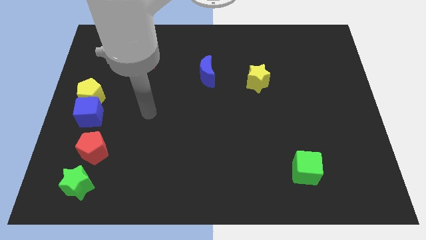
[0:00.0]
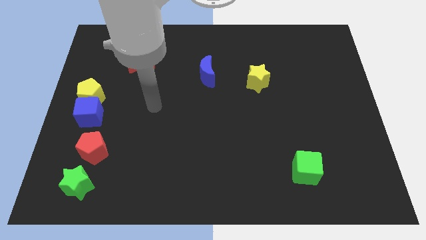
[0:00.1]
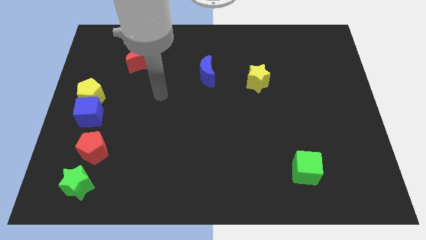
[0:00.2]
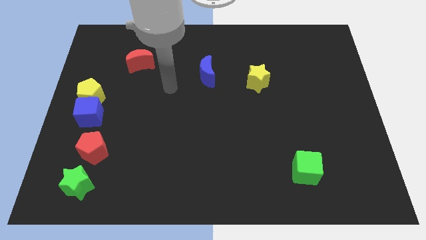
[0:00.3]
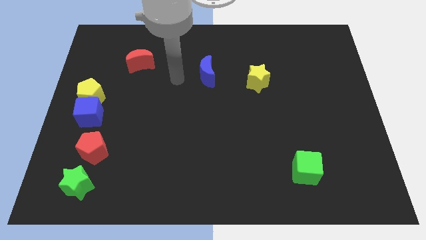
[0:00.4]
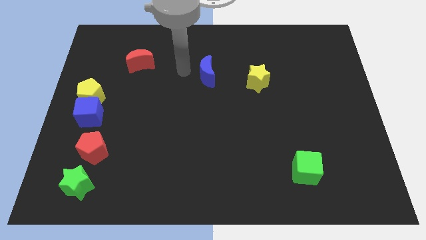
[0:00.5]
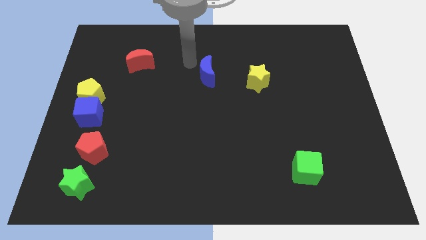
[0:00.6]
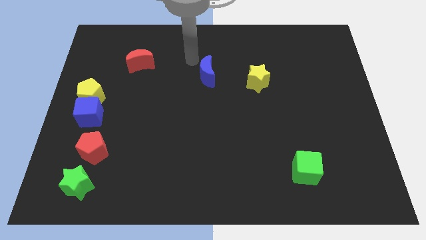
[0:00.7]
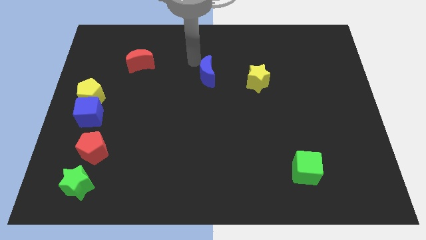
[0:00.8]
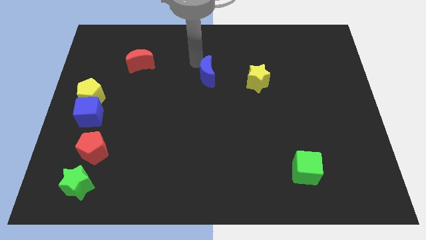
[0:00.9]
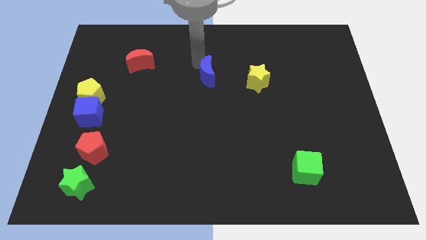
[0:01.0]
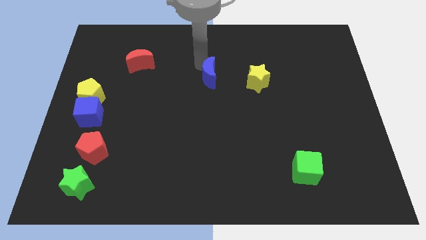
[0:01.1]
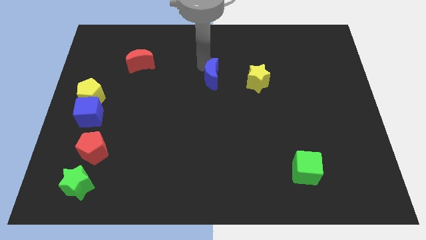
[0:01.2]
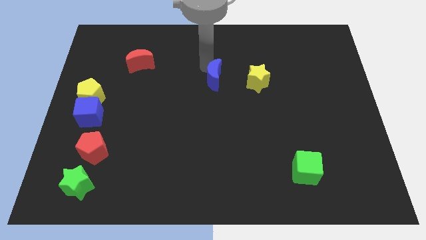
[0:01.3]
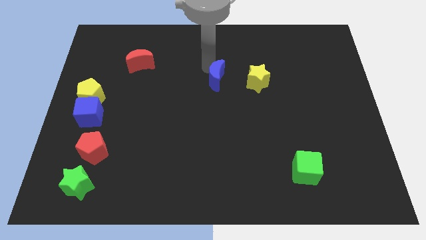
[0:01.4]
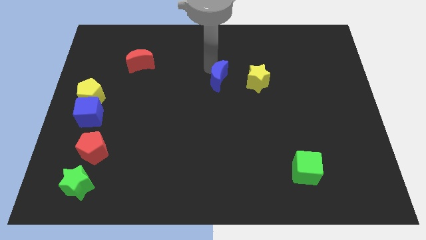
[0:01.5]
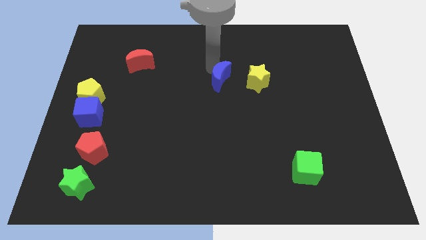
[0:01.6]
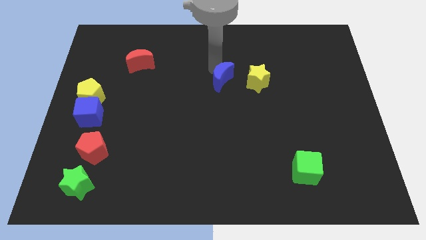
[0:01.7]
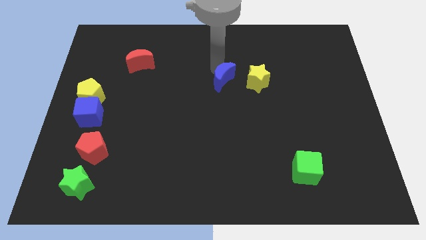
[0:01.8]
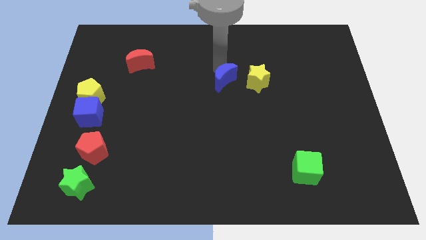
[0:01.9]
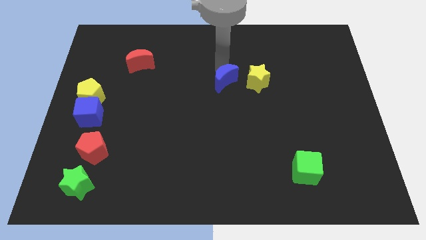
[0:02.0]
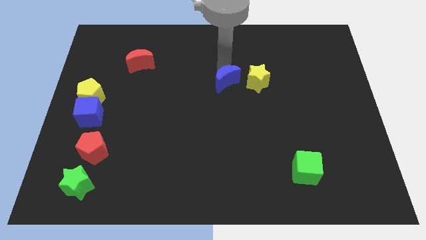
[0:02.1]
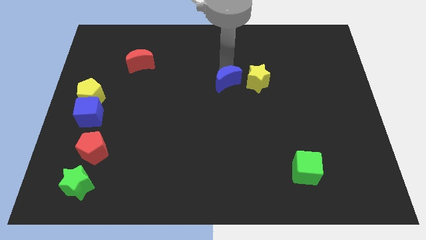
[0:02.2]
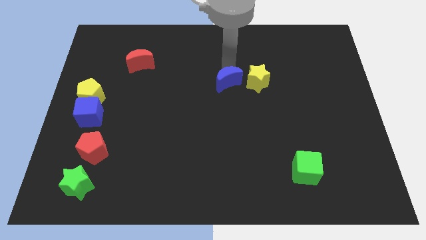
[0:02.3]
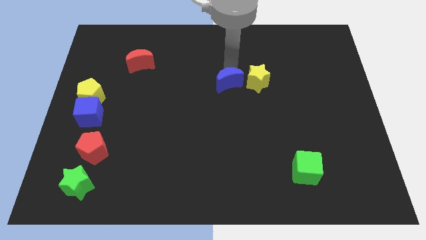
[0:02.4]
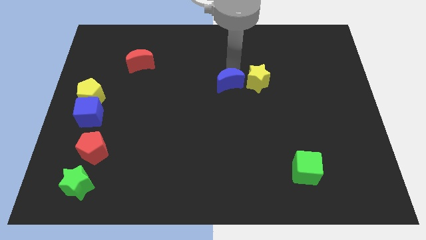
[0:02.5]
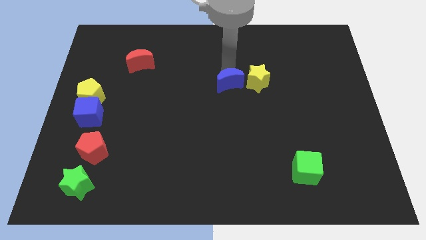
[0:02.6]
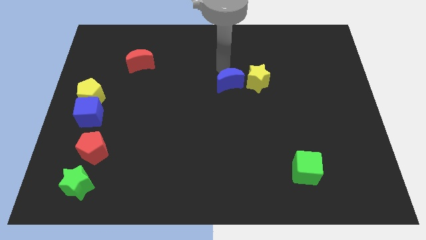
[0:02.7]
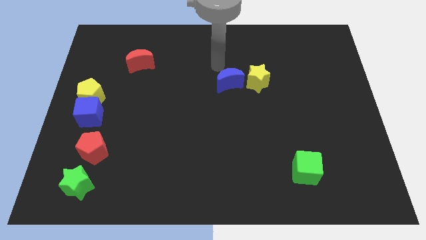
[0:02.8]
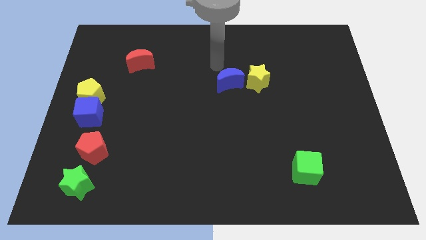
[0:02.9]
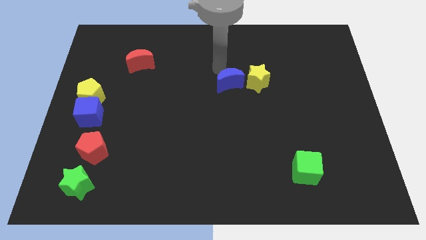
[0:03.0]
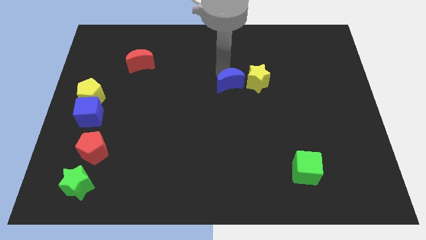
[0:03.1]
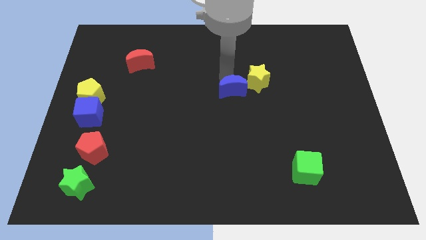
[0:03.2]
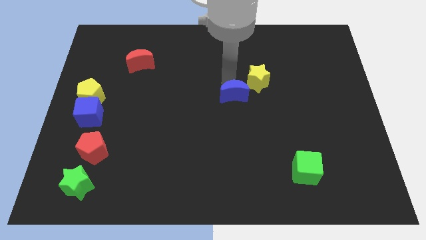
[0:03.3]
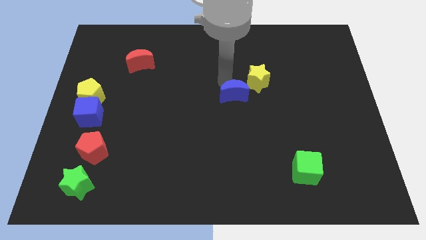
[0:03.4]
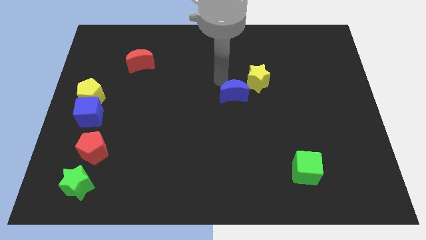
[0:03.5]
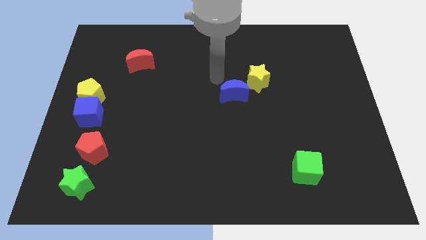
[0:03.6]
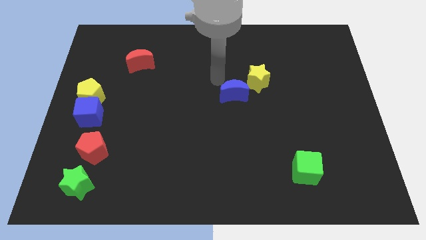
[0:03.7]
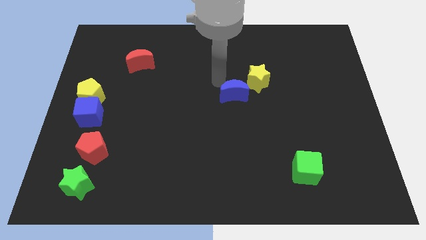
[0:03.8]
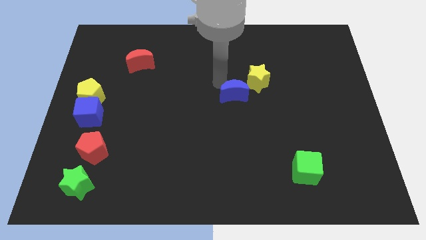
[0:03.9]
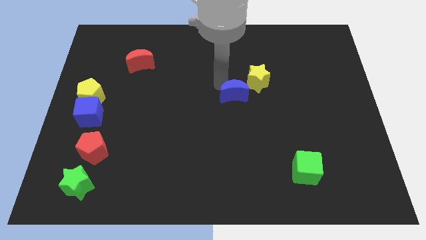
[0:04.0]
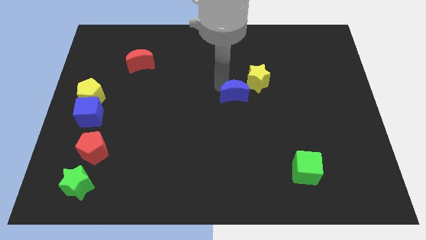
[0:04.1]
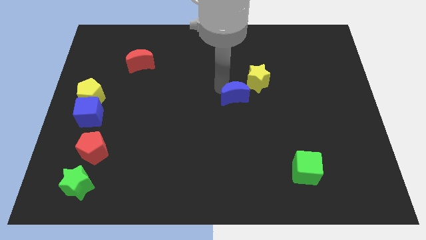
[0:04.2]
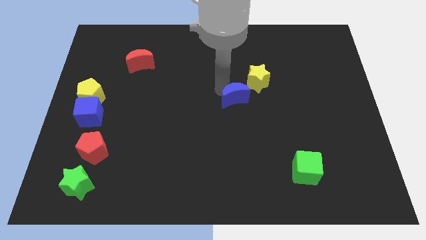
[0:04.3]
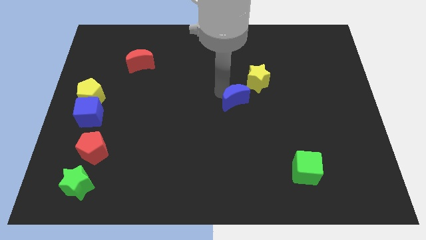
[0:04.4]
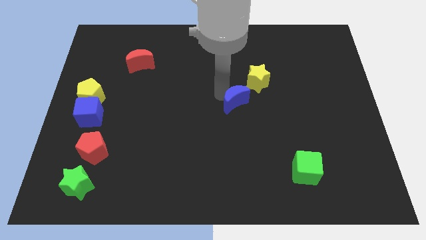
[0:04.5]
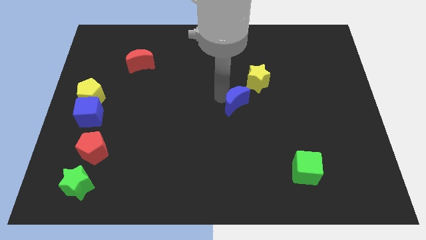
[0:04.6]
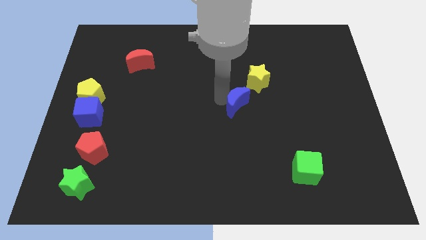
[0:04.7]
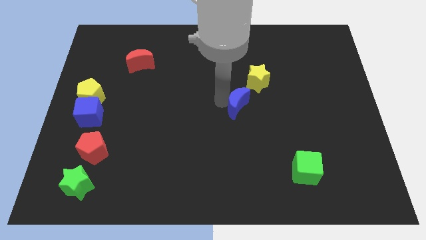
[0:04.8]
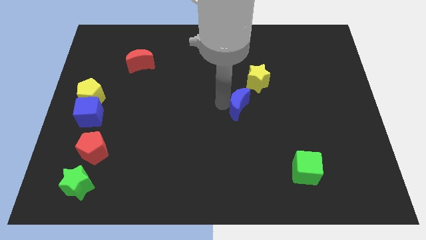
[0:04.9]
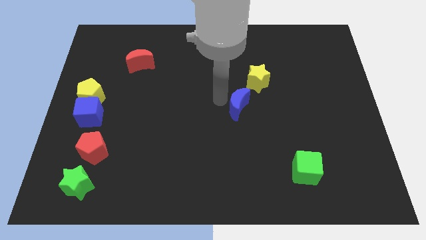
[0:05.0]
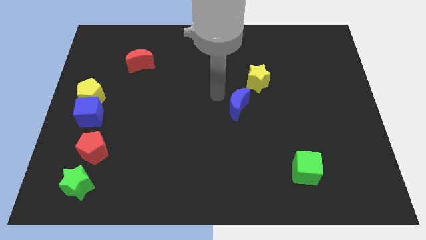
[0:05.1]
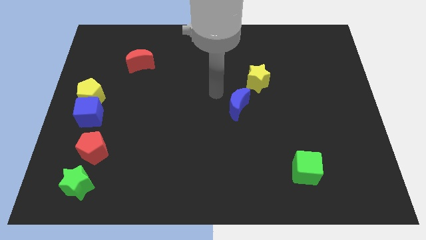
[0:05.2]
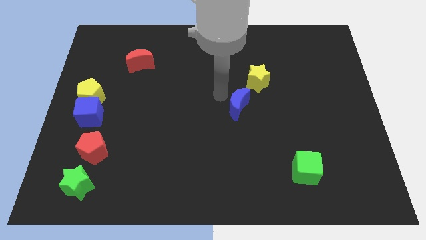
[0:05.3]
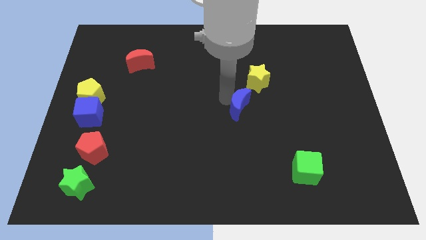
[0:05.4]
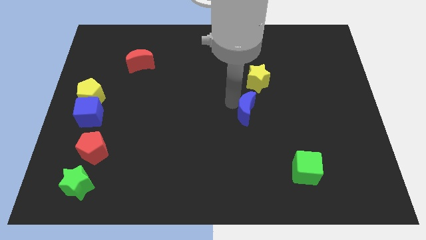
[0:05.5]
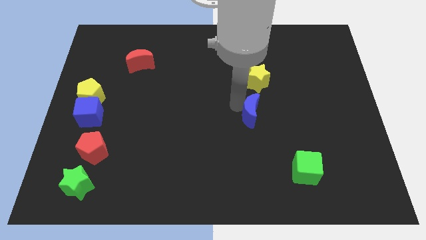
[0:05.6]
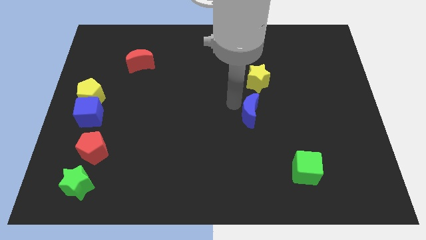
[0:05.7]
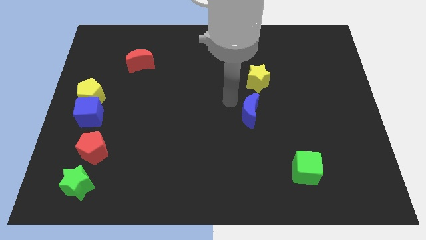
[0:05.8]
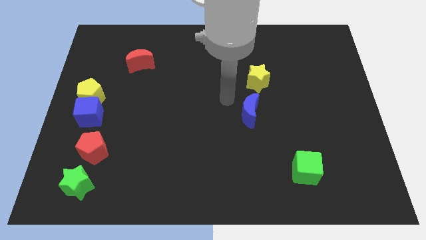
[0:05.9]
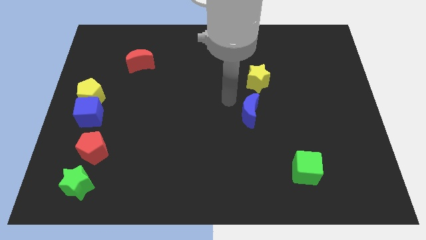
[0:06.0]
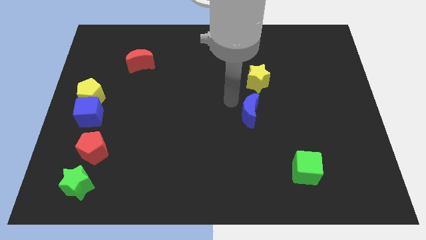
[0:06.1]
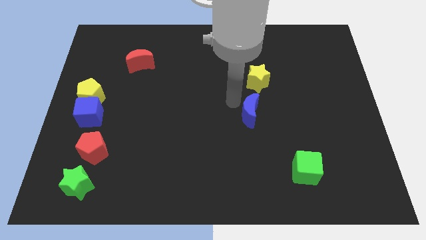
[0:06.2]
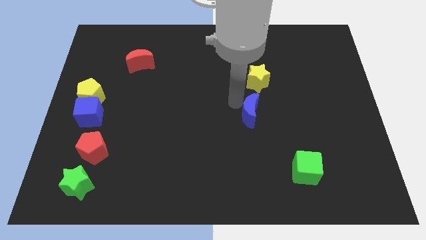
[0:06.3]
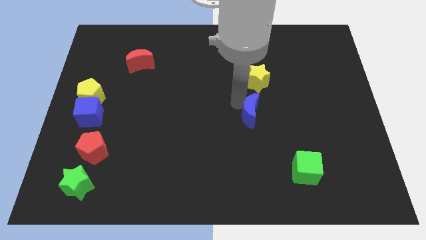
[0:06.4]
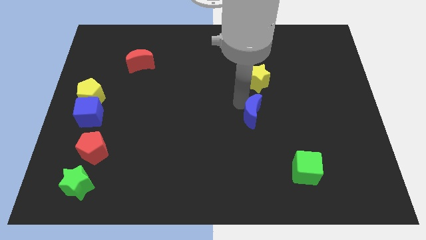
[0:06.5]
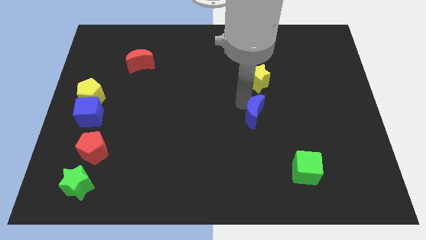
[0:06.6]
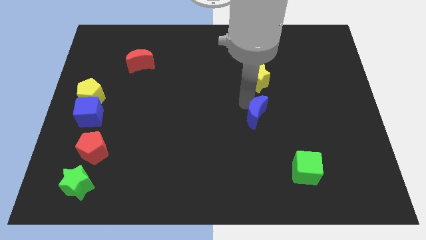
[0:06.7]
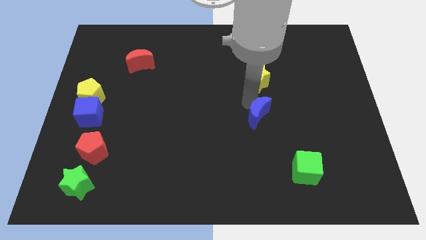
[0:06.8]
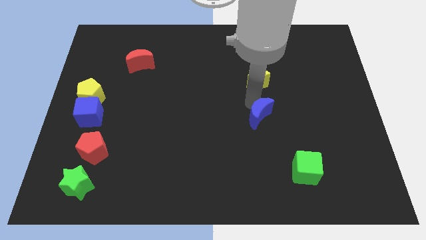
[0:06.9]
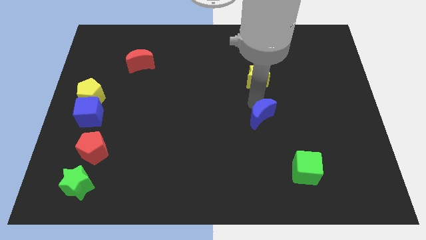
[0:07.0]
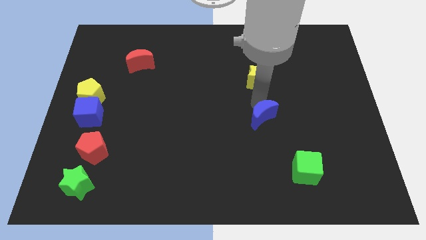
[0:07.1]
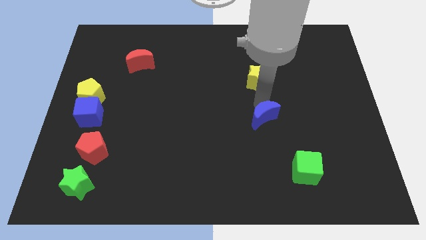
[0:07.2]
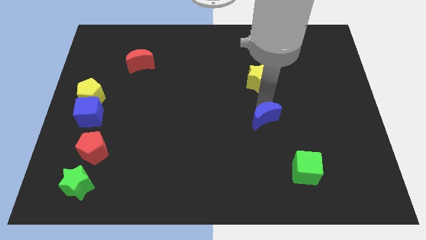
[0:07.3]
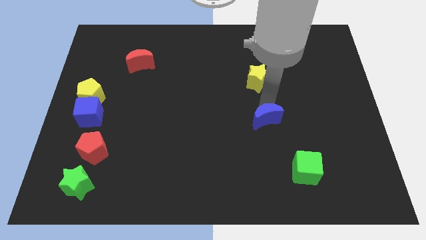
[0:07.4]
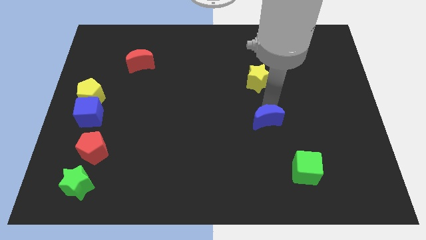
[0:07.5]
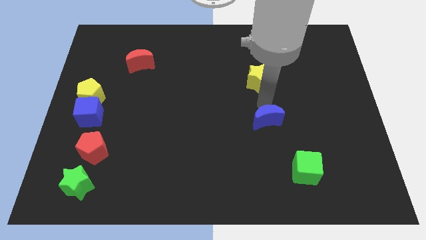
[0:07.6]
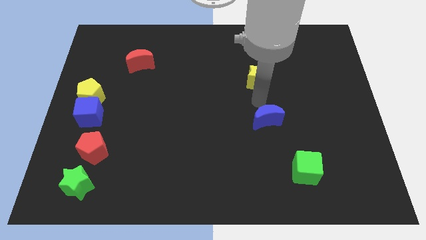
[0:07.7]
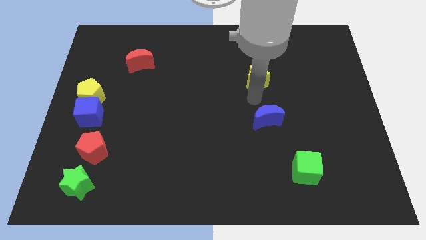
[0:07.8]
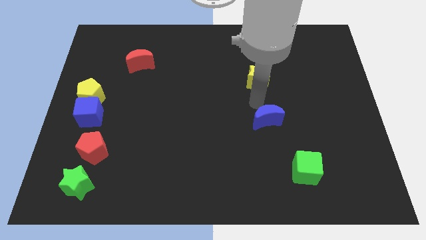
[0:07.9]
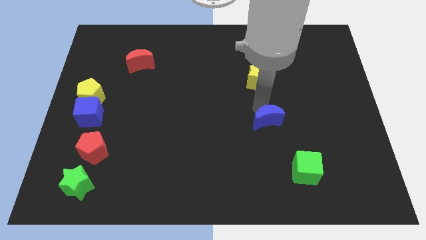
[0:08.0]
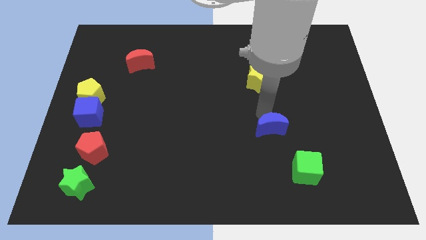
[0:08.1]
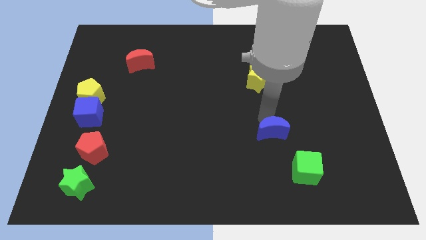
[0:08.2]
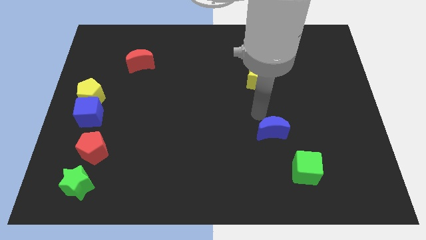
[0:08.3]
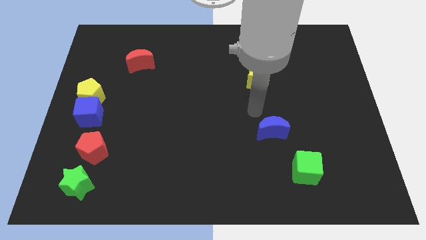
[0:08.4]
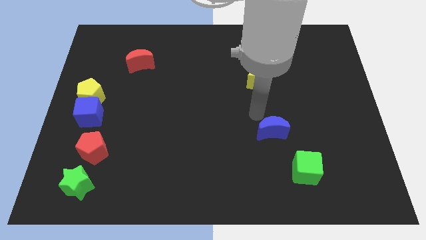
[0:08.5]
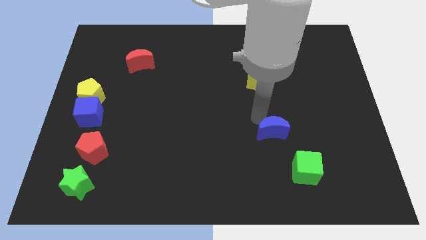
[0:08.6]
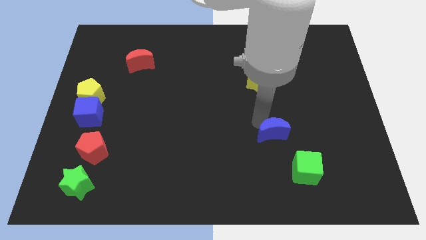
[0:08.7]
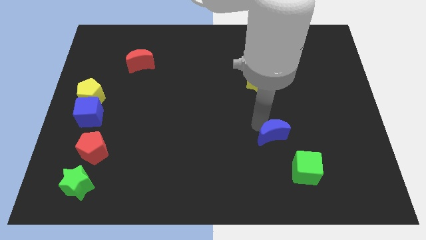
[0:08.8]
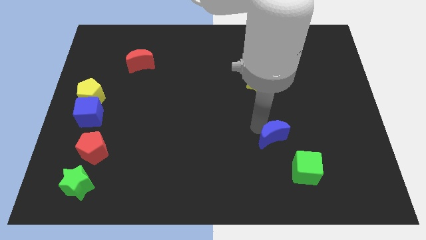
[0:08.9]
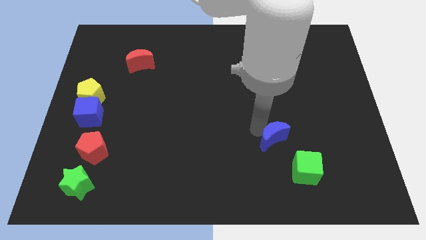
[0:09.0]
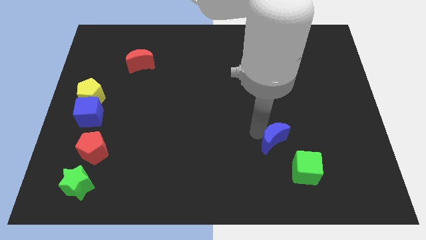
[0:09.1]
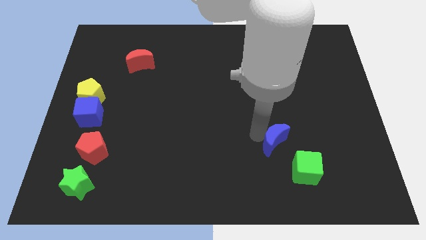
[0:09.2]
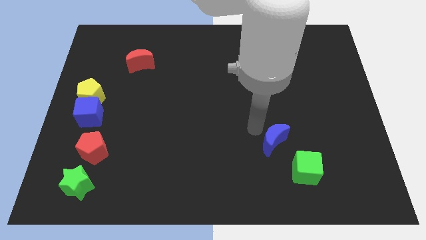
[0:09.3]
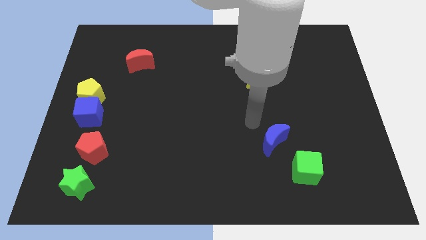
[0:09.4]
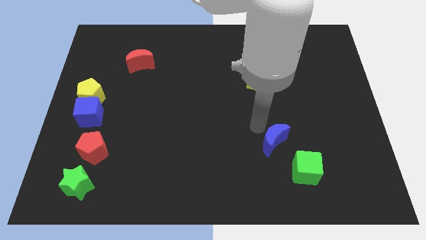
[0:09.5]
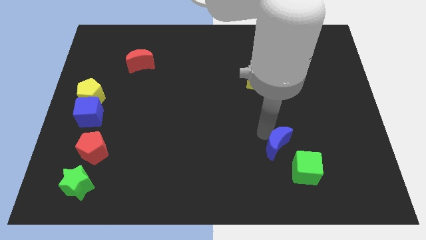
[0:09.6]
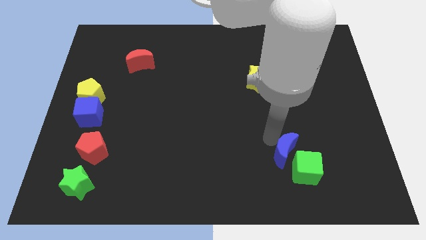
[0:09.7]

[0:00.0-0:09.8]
slide the blue moon next to the green cube
